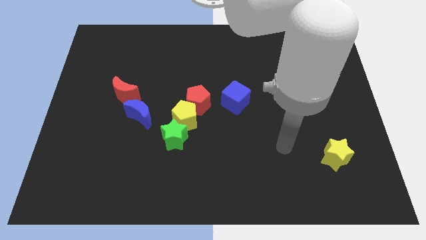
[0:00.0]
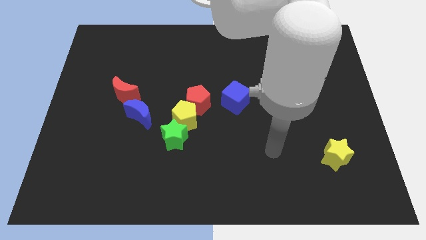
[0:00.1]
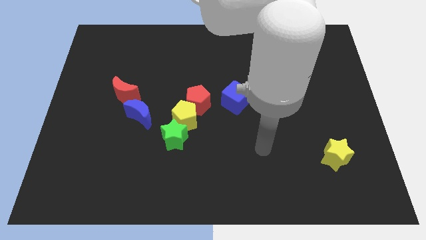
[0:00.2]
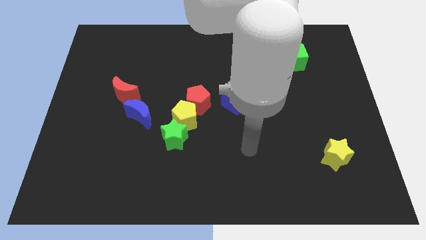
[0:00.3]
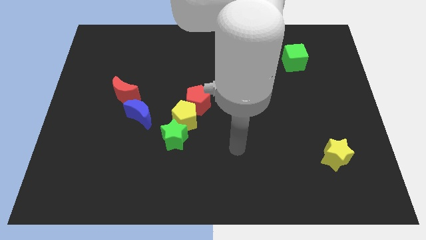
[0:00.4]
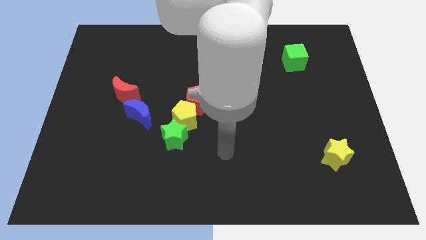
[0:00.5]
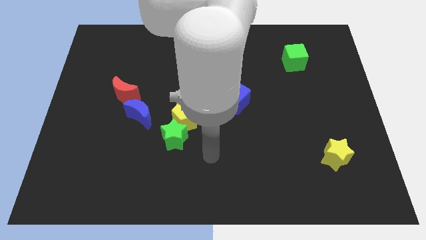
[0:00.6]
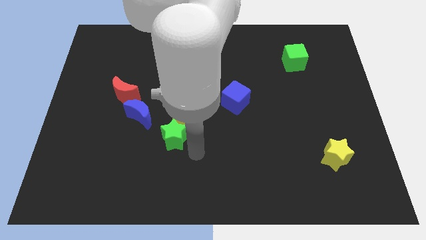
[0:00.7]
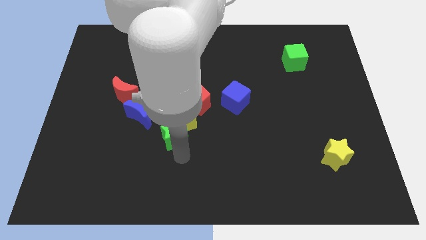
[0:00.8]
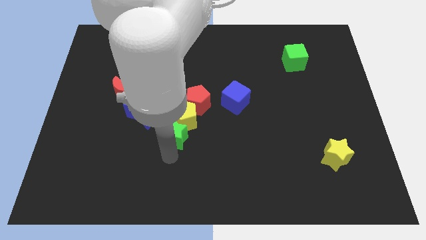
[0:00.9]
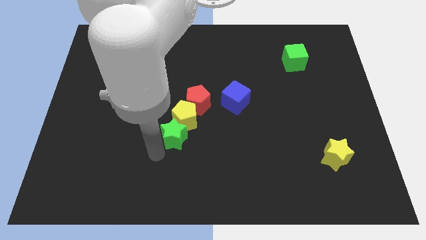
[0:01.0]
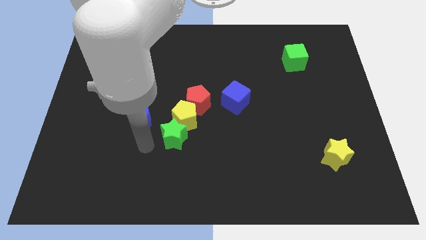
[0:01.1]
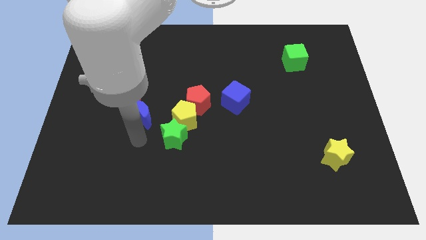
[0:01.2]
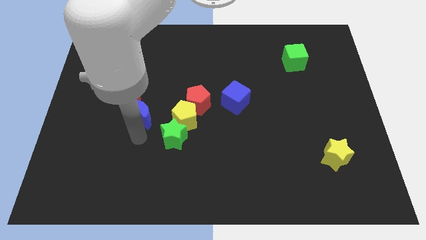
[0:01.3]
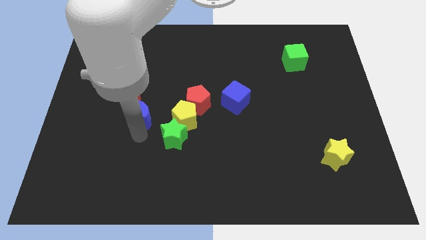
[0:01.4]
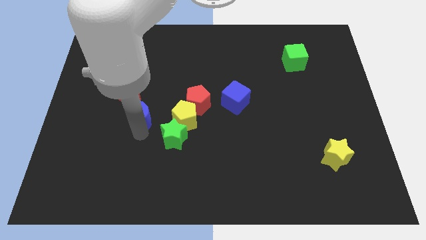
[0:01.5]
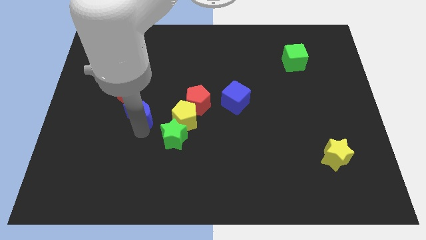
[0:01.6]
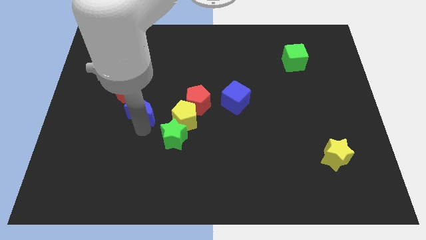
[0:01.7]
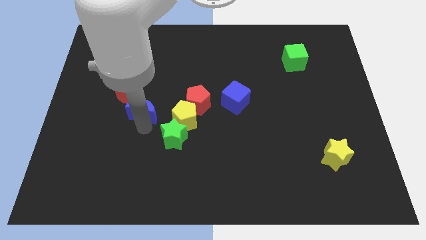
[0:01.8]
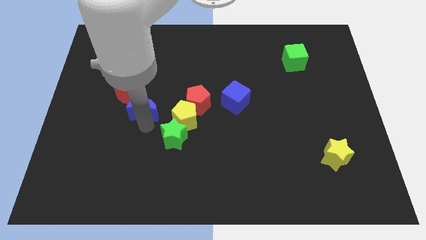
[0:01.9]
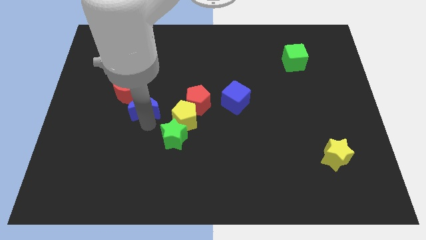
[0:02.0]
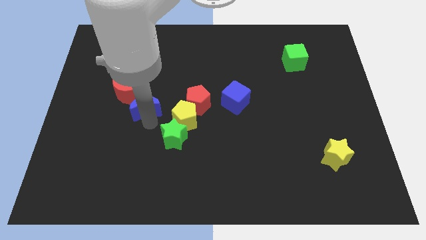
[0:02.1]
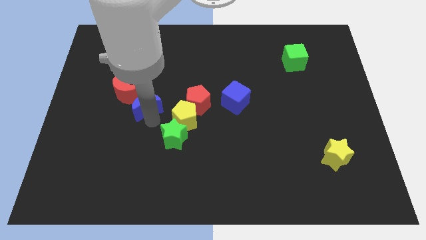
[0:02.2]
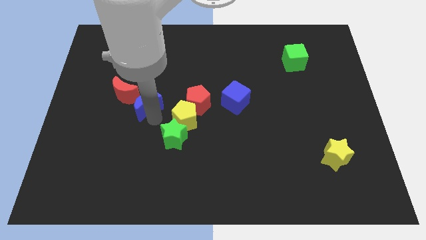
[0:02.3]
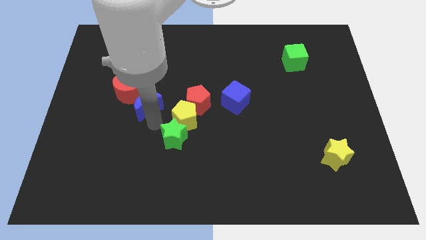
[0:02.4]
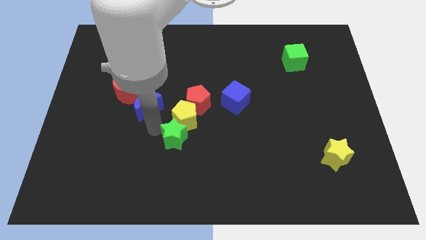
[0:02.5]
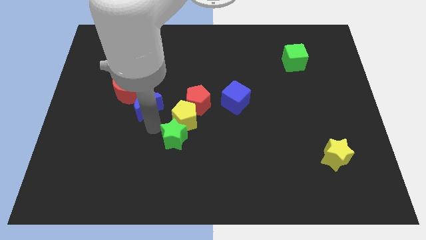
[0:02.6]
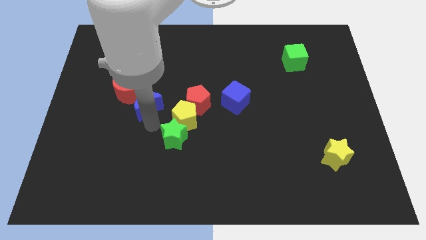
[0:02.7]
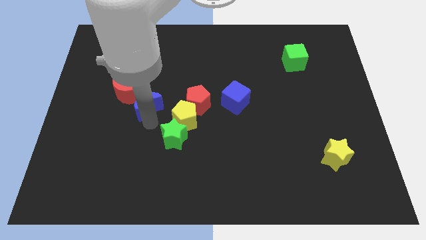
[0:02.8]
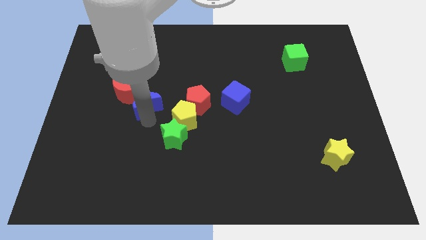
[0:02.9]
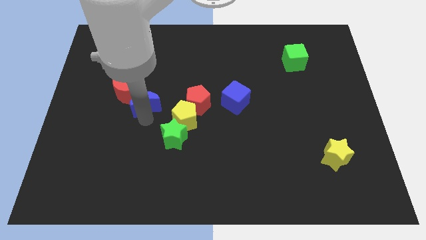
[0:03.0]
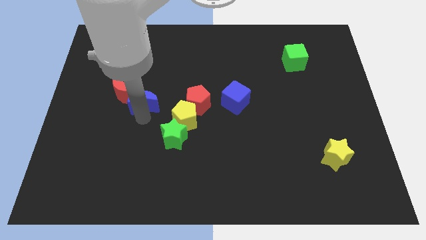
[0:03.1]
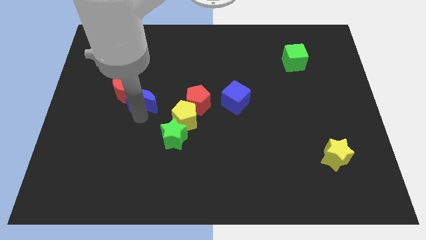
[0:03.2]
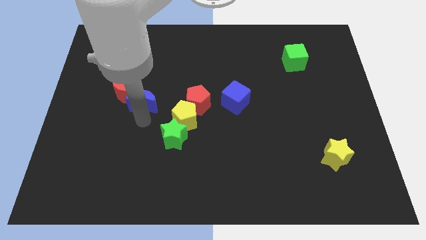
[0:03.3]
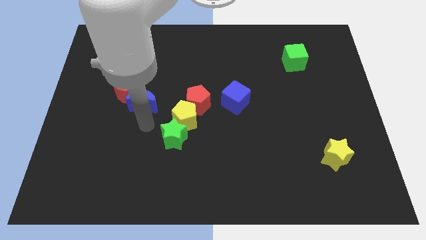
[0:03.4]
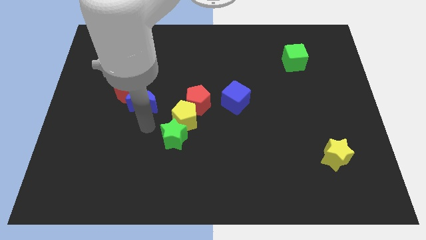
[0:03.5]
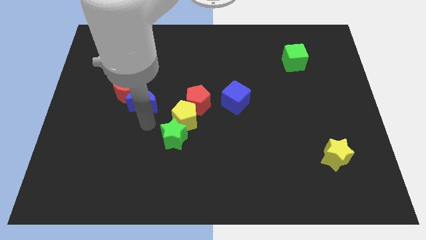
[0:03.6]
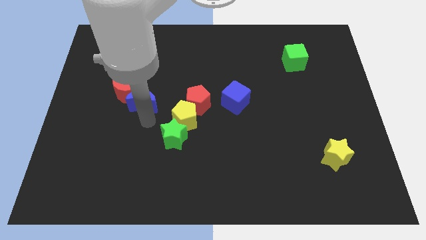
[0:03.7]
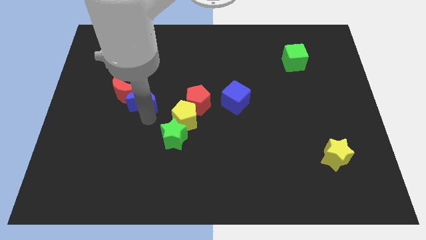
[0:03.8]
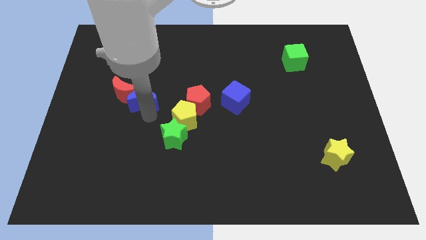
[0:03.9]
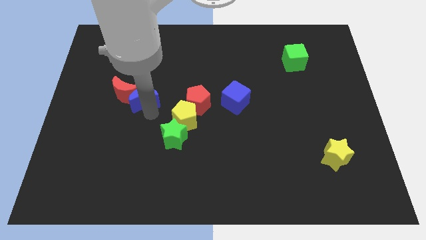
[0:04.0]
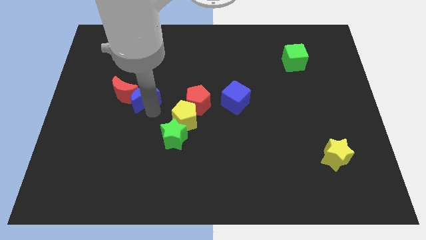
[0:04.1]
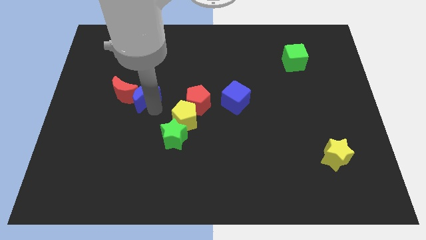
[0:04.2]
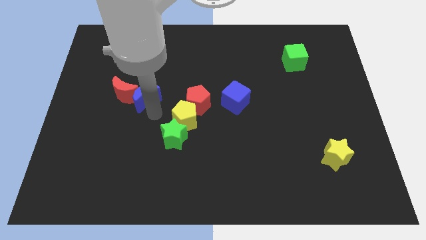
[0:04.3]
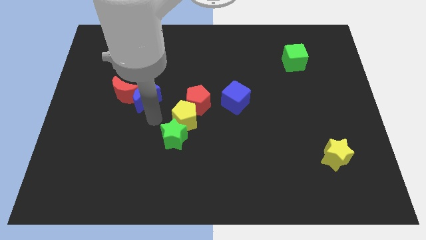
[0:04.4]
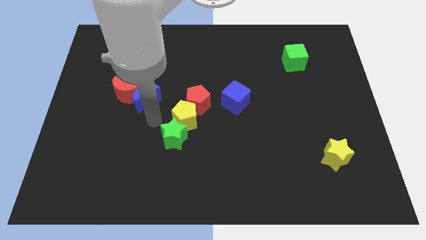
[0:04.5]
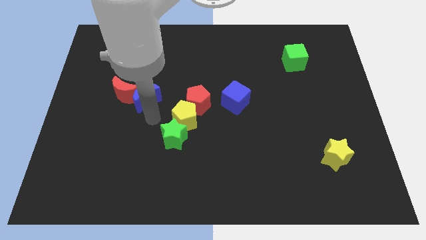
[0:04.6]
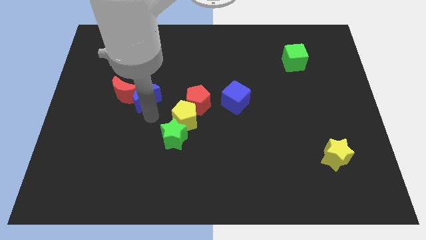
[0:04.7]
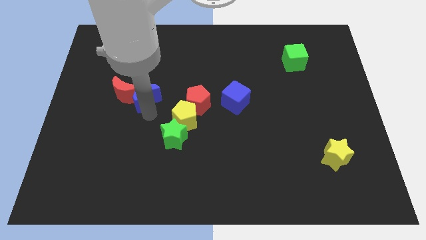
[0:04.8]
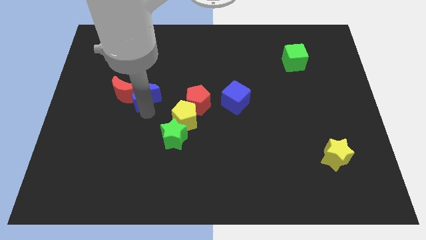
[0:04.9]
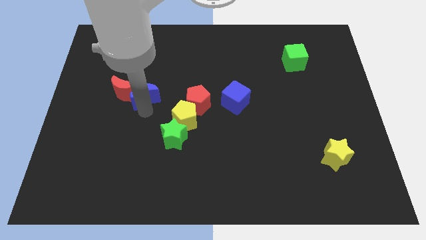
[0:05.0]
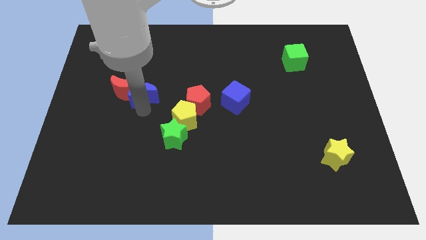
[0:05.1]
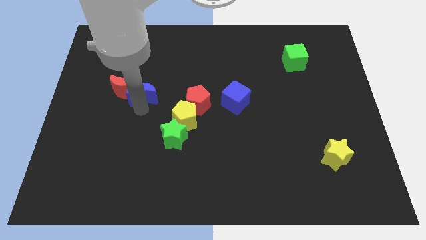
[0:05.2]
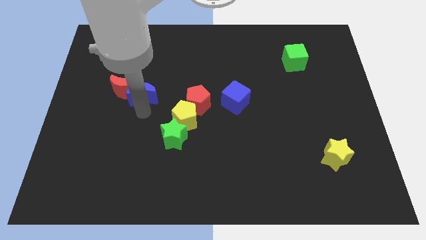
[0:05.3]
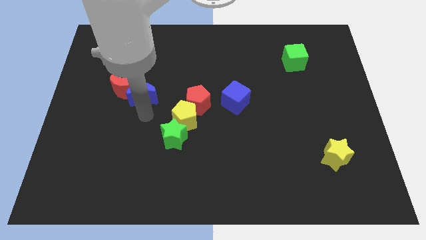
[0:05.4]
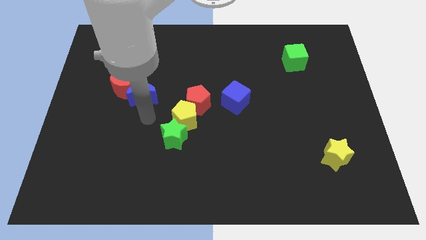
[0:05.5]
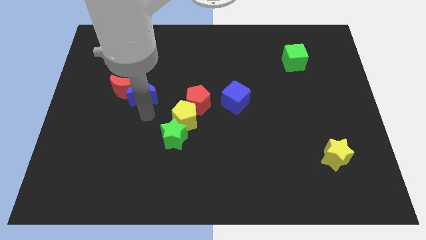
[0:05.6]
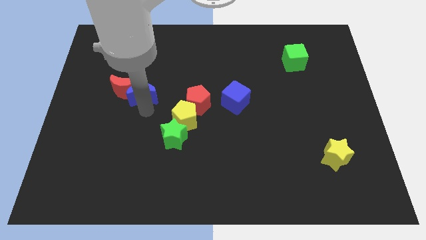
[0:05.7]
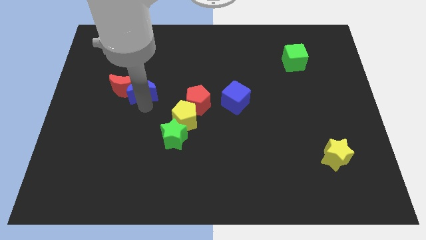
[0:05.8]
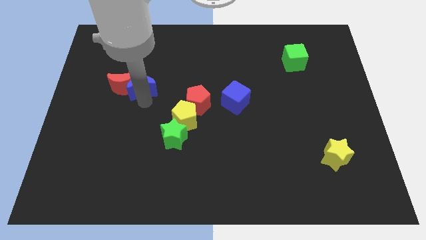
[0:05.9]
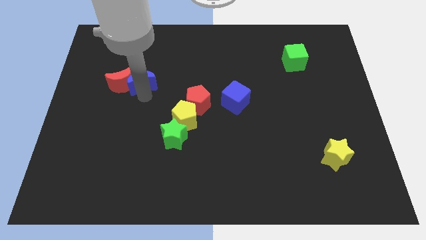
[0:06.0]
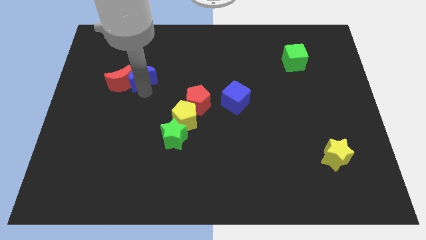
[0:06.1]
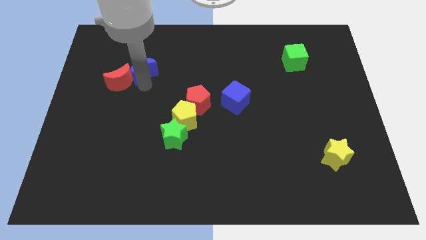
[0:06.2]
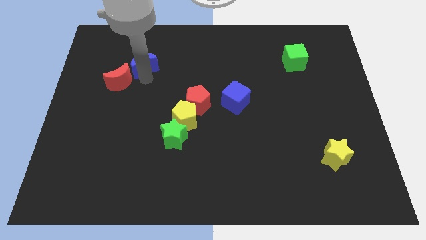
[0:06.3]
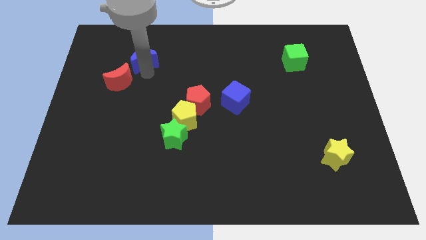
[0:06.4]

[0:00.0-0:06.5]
put the blue moon above the red moon
